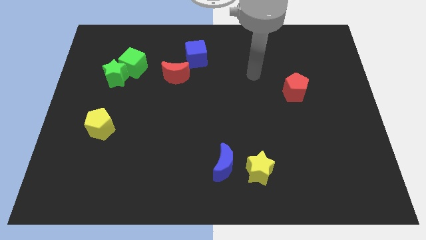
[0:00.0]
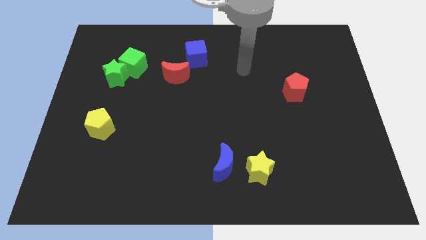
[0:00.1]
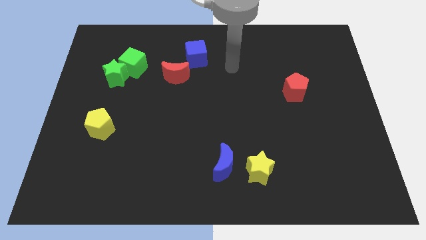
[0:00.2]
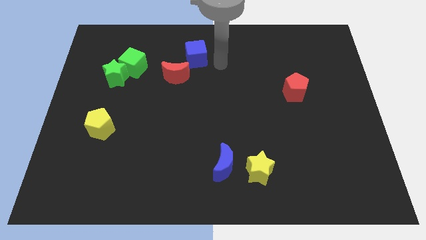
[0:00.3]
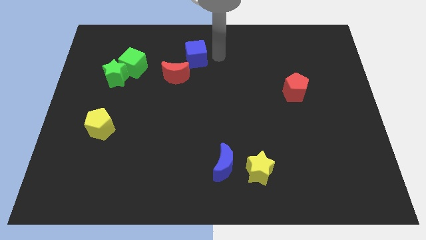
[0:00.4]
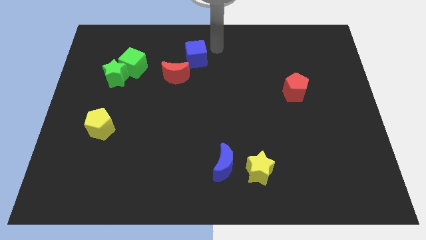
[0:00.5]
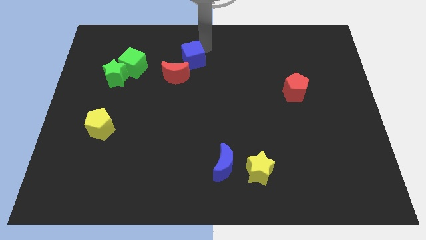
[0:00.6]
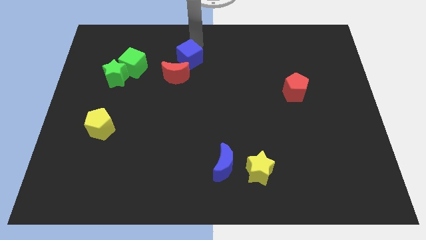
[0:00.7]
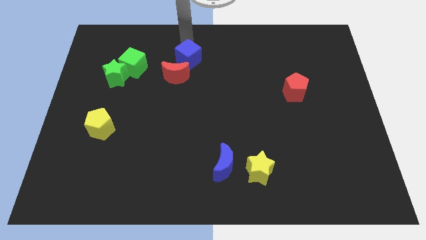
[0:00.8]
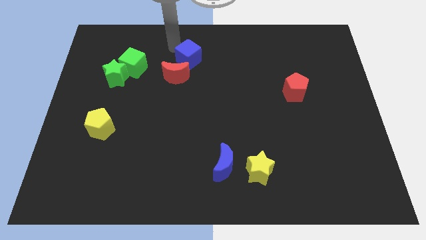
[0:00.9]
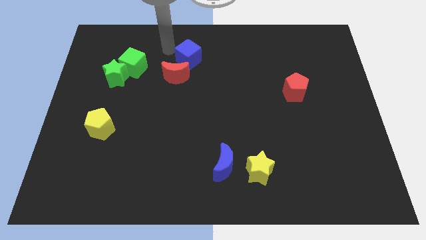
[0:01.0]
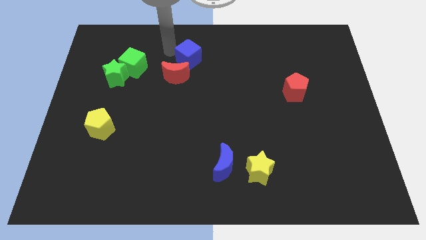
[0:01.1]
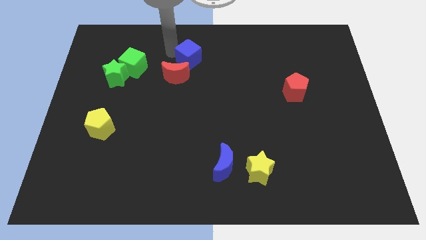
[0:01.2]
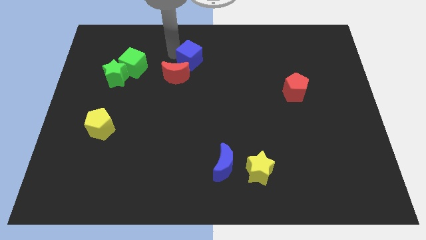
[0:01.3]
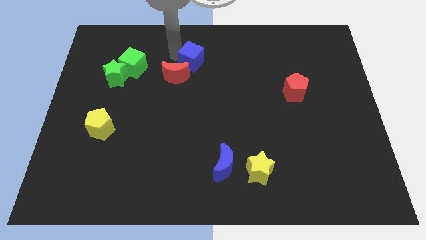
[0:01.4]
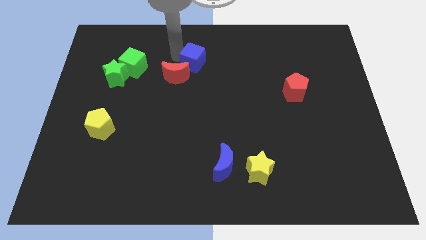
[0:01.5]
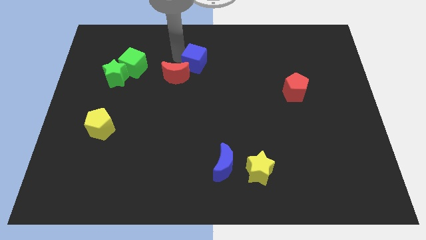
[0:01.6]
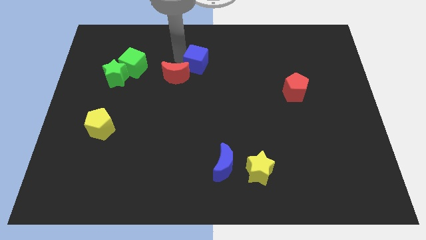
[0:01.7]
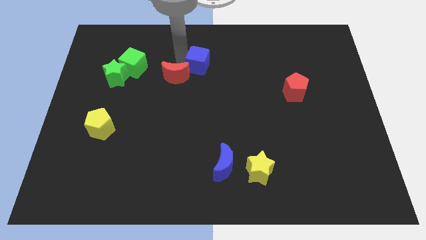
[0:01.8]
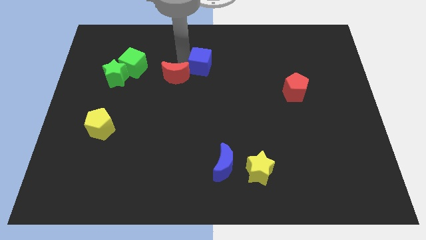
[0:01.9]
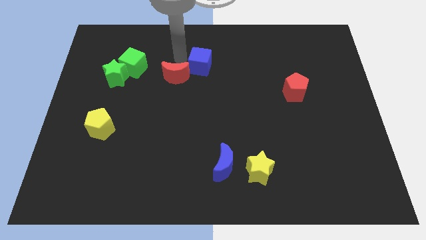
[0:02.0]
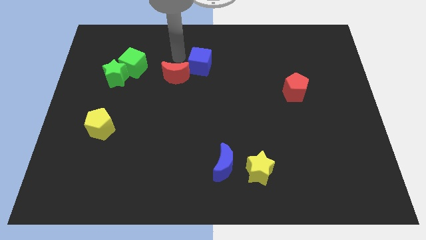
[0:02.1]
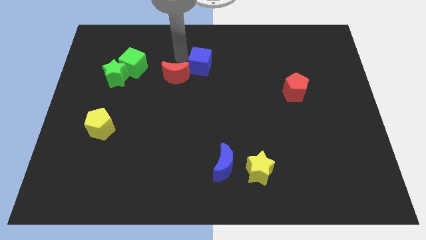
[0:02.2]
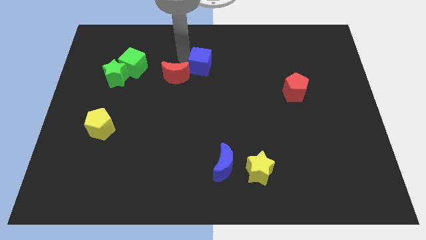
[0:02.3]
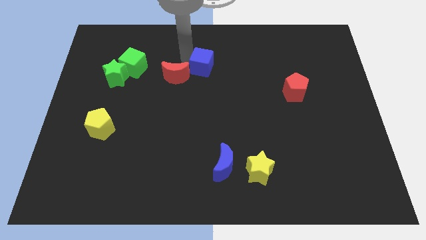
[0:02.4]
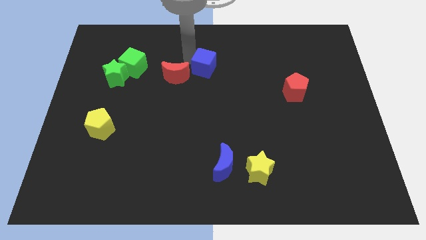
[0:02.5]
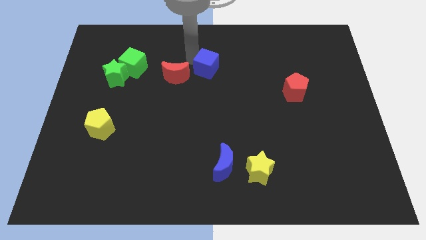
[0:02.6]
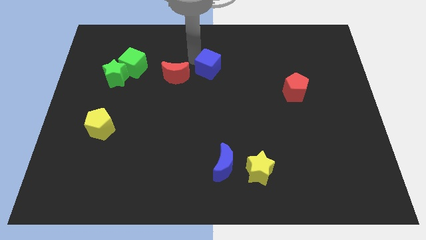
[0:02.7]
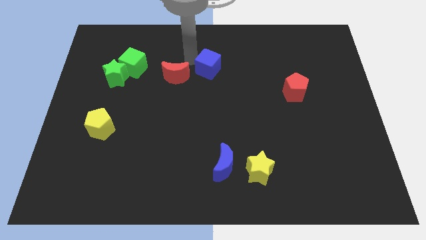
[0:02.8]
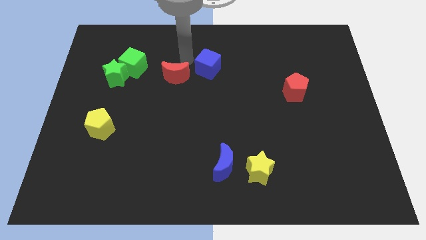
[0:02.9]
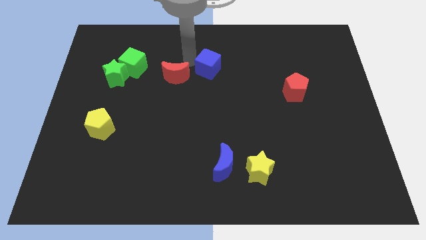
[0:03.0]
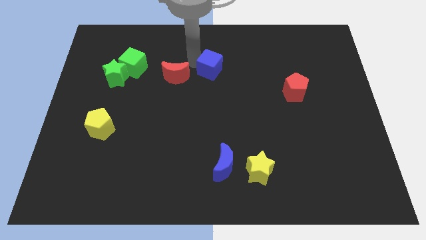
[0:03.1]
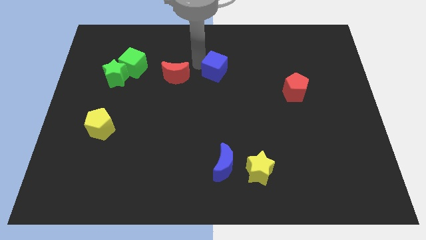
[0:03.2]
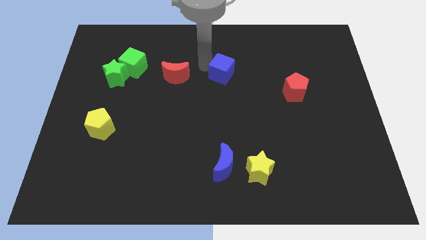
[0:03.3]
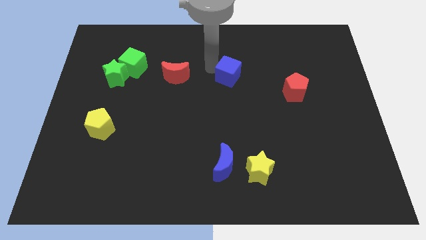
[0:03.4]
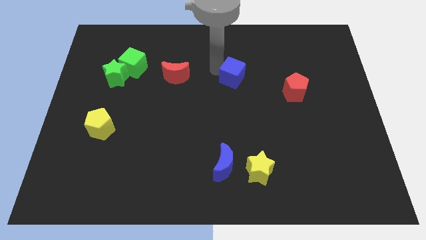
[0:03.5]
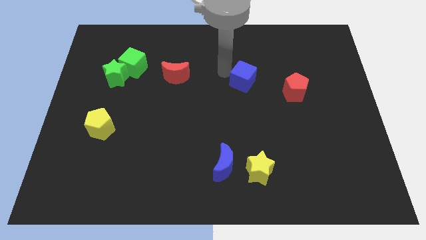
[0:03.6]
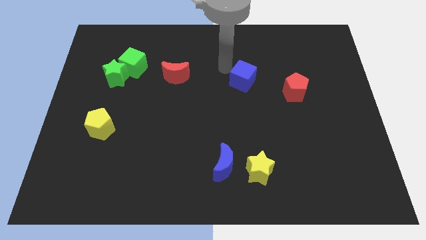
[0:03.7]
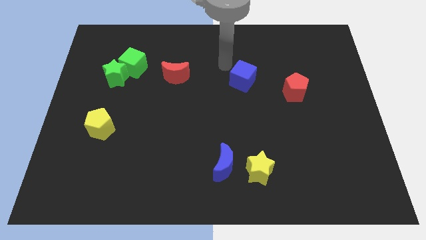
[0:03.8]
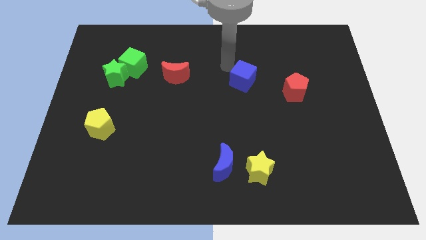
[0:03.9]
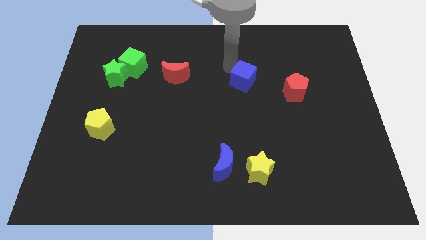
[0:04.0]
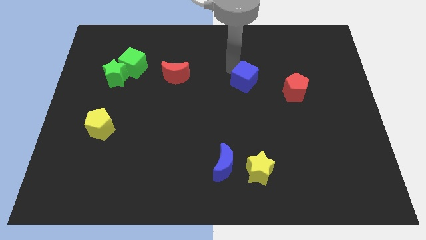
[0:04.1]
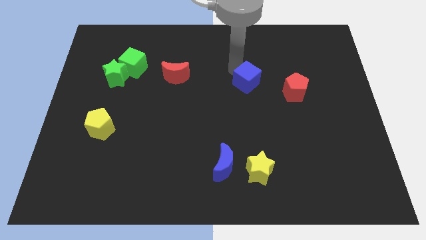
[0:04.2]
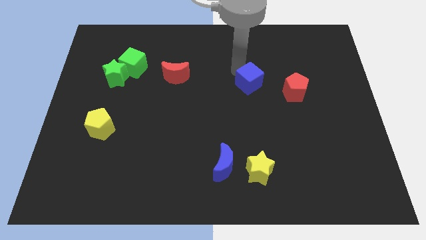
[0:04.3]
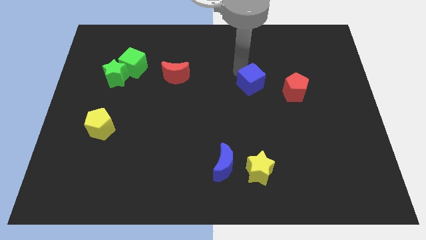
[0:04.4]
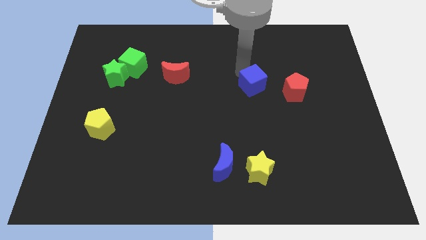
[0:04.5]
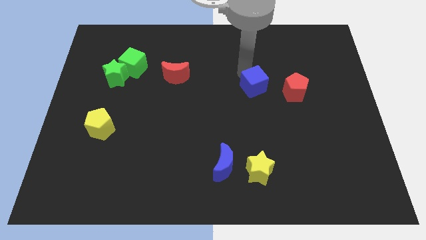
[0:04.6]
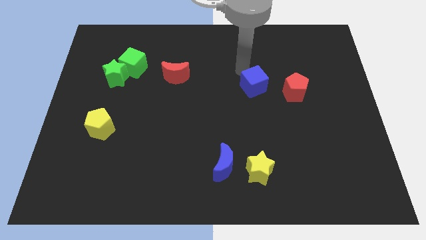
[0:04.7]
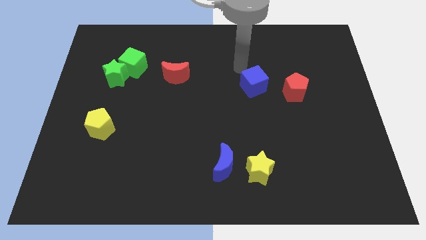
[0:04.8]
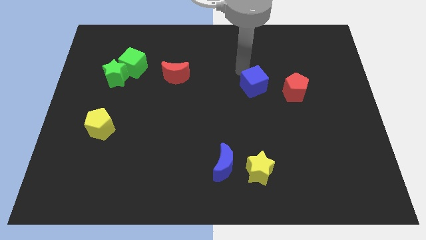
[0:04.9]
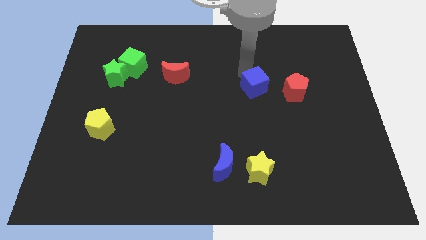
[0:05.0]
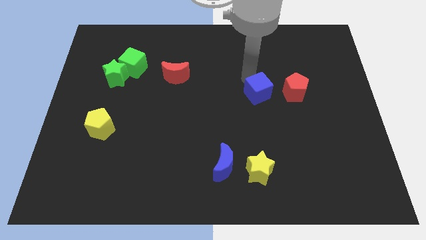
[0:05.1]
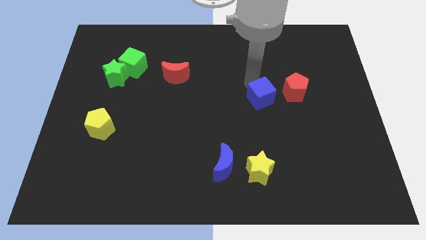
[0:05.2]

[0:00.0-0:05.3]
push the blue cube down and right diagonally

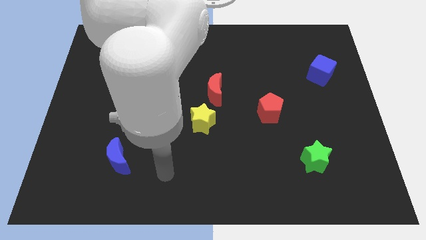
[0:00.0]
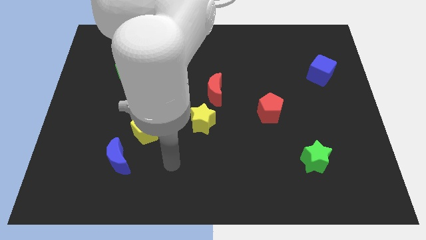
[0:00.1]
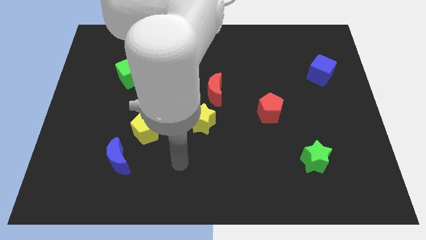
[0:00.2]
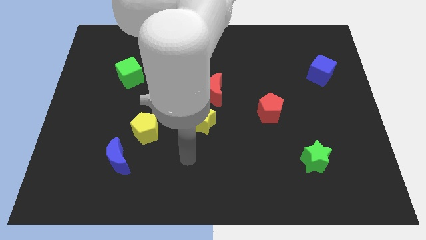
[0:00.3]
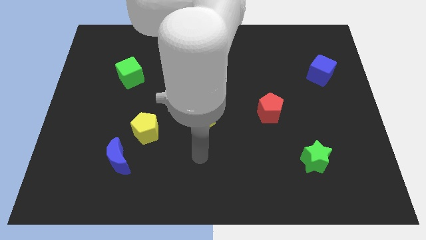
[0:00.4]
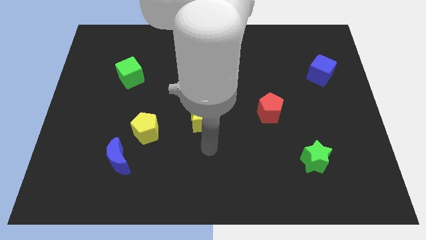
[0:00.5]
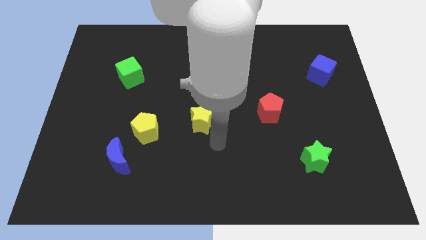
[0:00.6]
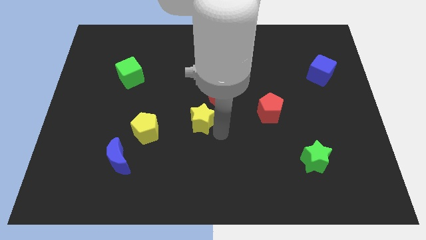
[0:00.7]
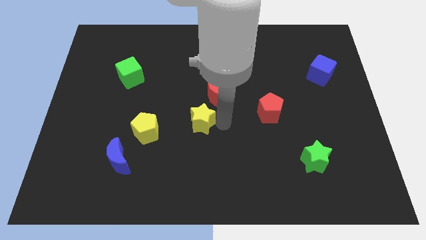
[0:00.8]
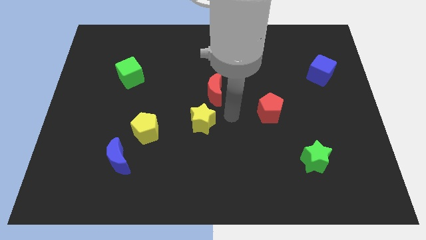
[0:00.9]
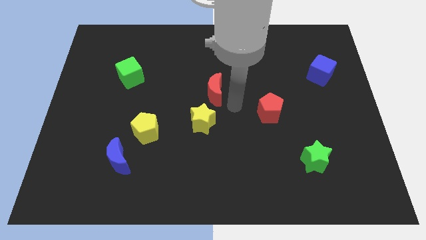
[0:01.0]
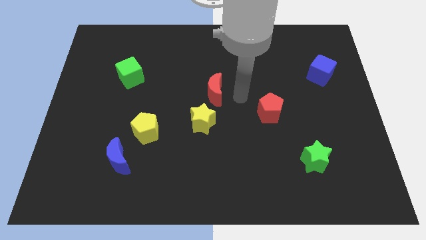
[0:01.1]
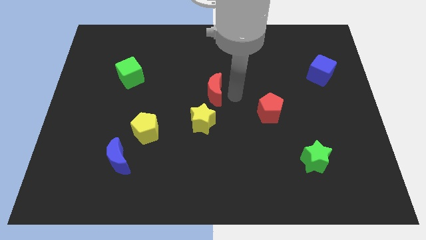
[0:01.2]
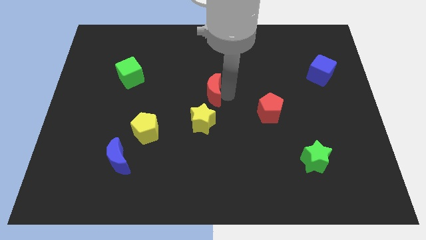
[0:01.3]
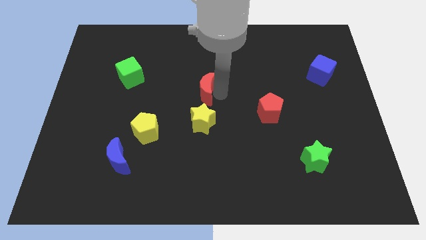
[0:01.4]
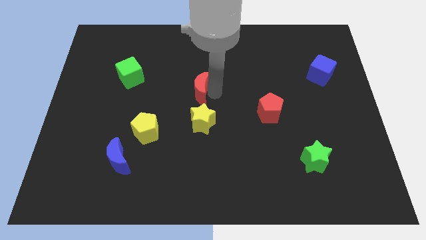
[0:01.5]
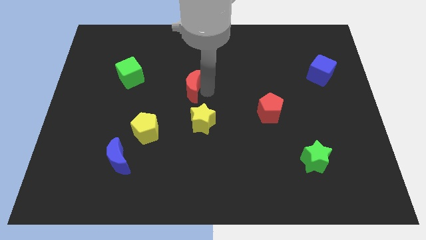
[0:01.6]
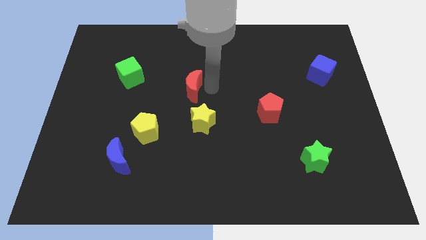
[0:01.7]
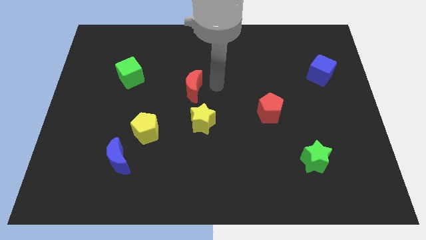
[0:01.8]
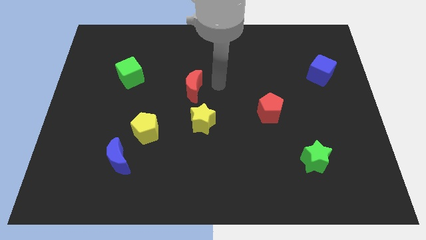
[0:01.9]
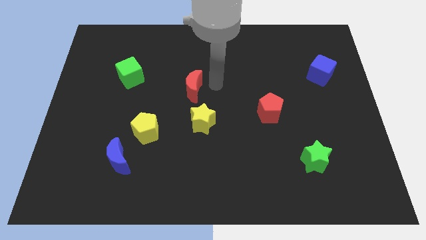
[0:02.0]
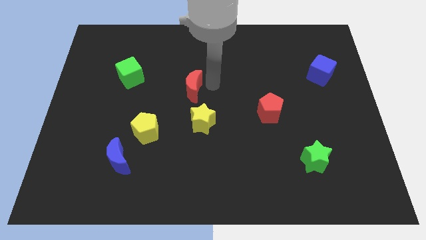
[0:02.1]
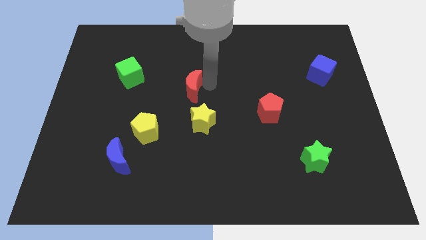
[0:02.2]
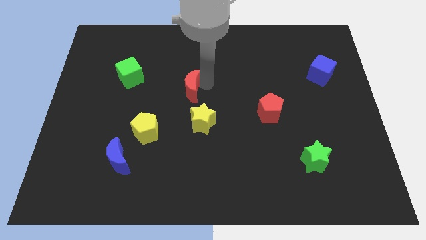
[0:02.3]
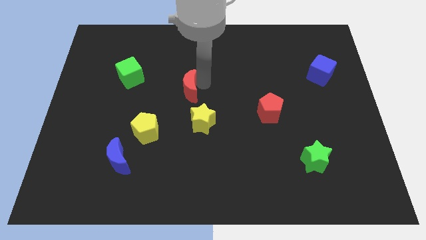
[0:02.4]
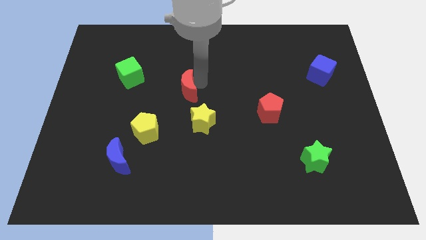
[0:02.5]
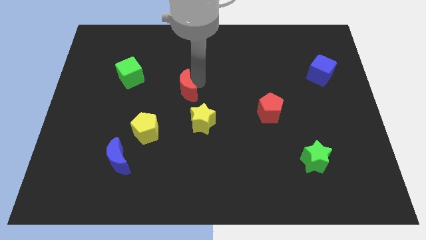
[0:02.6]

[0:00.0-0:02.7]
slide the red moon left a bit
